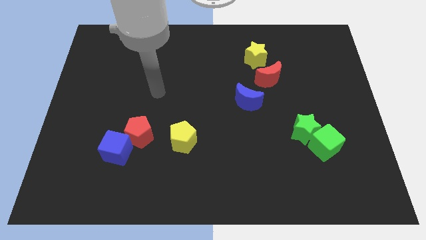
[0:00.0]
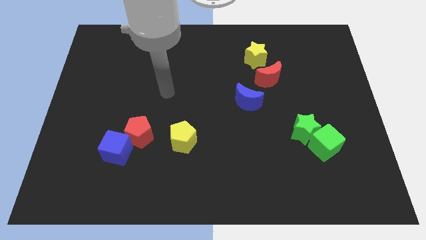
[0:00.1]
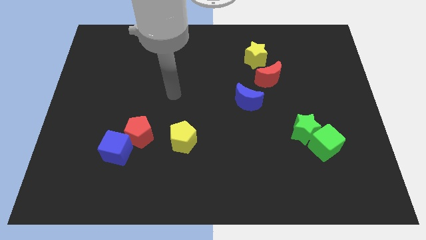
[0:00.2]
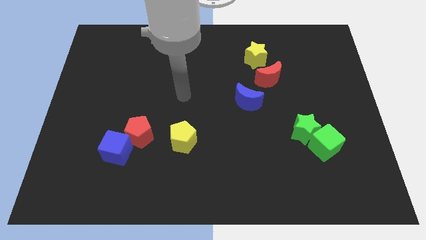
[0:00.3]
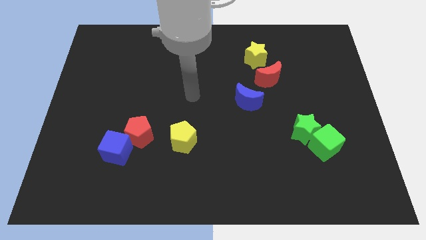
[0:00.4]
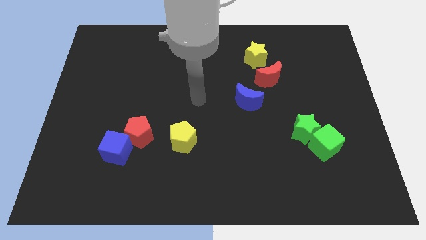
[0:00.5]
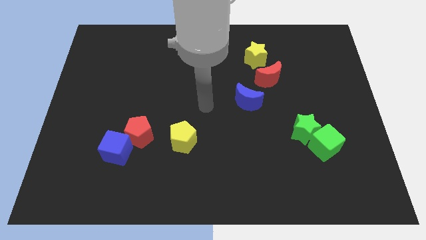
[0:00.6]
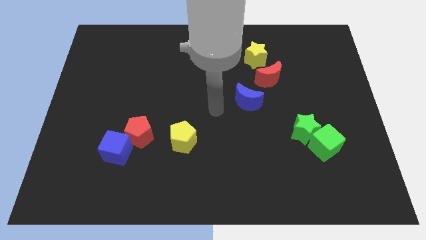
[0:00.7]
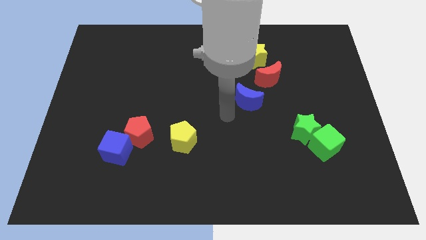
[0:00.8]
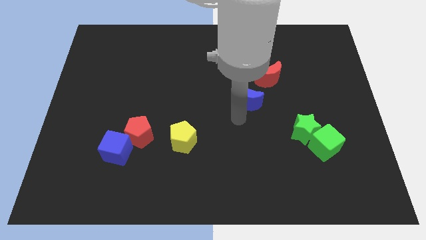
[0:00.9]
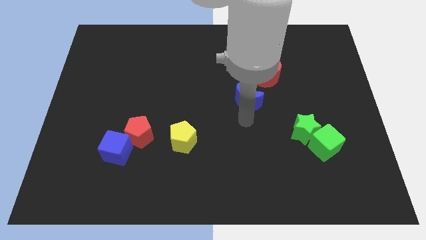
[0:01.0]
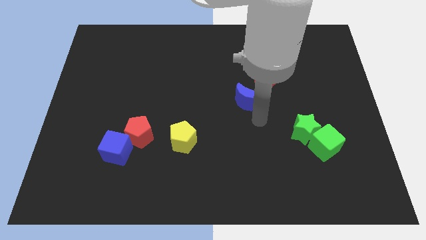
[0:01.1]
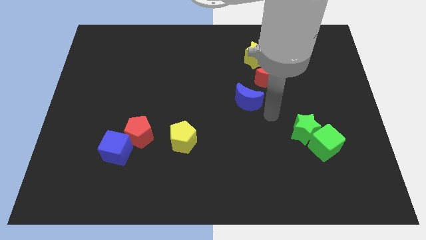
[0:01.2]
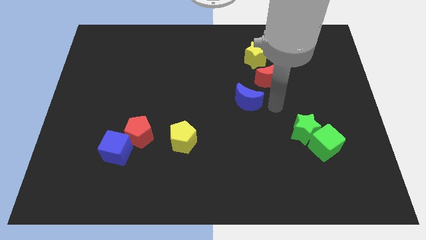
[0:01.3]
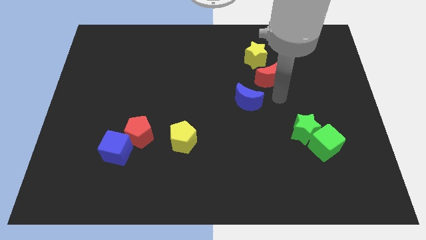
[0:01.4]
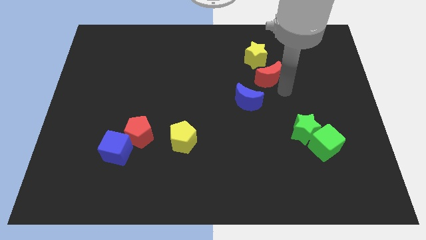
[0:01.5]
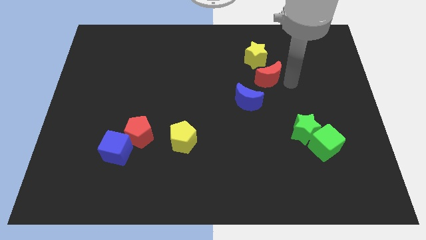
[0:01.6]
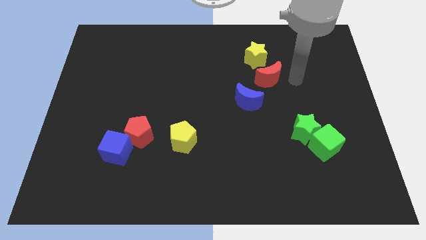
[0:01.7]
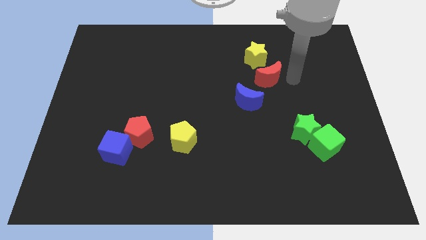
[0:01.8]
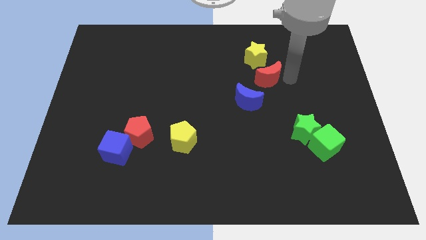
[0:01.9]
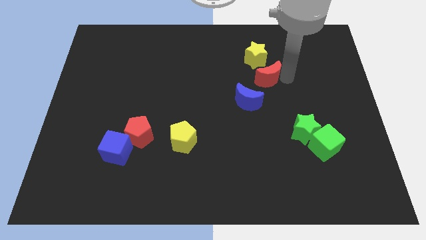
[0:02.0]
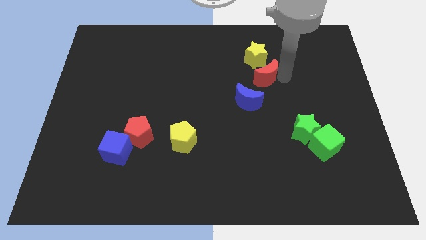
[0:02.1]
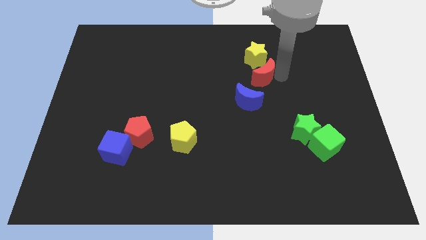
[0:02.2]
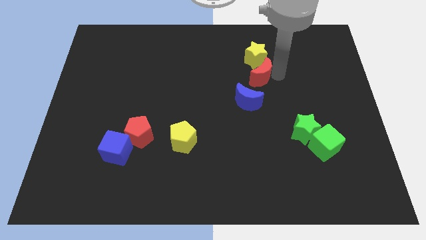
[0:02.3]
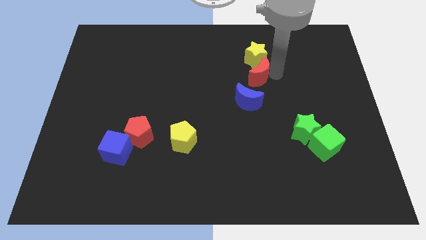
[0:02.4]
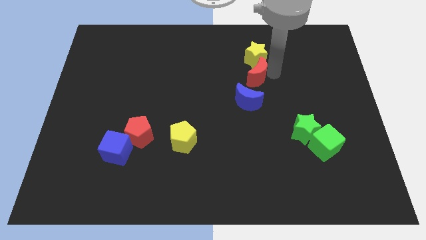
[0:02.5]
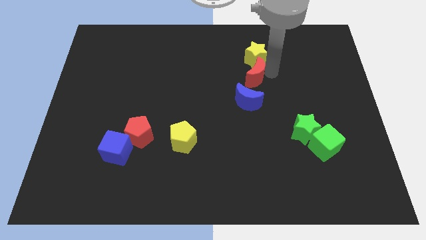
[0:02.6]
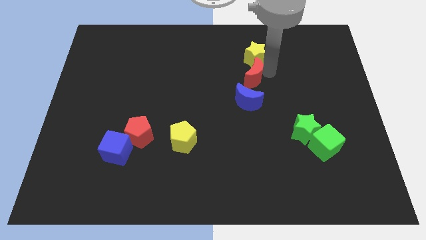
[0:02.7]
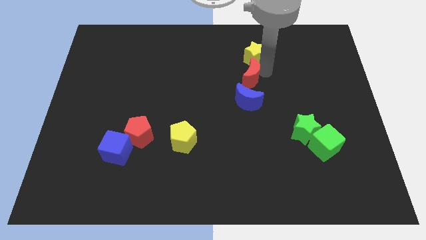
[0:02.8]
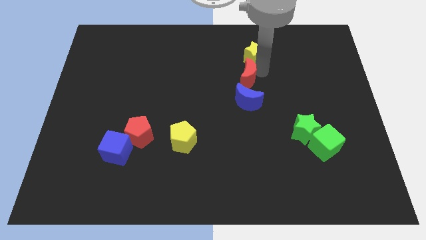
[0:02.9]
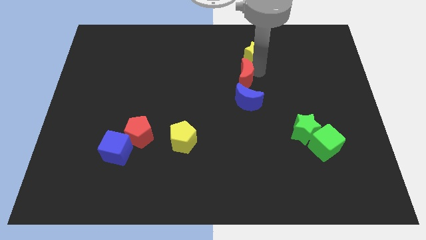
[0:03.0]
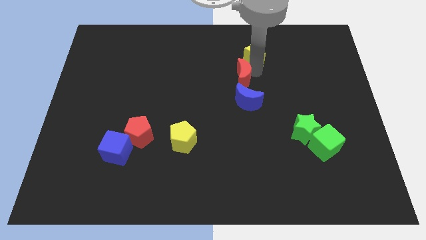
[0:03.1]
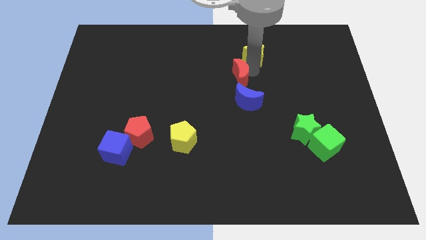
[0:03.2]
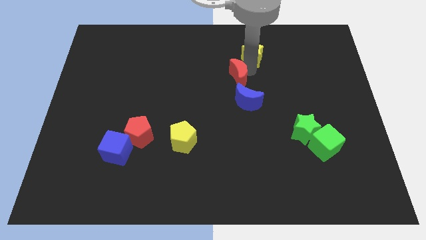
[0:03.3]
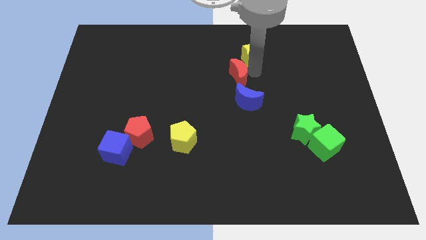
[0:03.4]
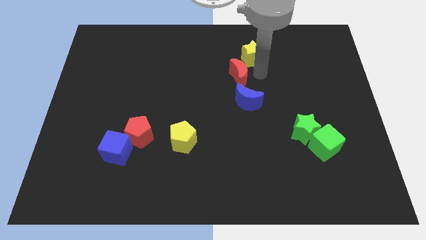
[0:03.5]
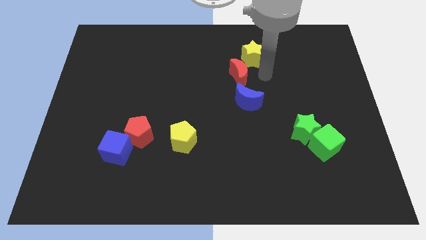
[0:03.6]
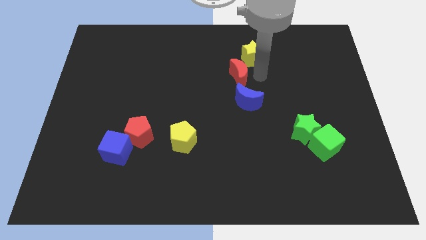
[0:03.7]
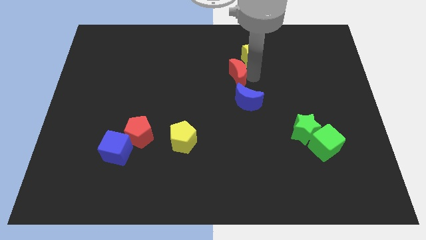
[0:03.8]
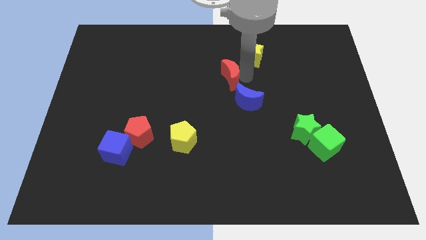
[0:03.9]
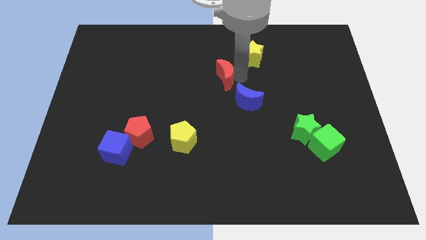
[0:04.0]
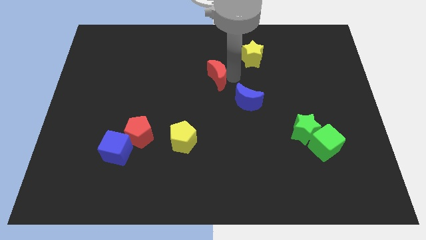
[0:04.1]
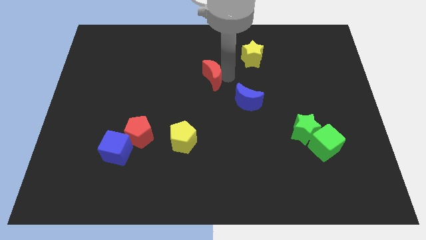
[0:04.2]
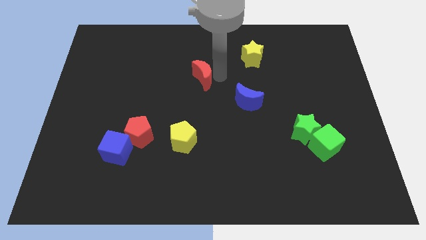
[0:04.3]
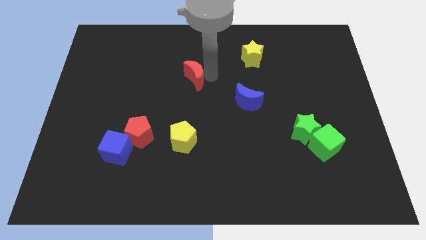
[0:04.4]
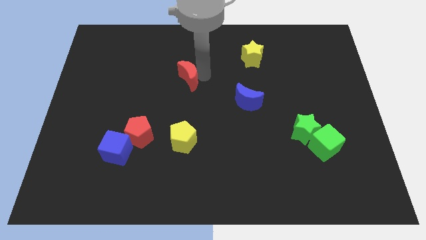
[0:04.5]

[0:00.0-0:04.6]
push the red moon left

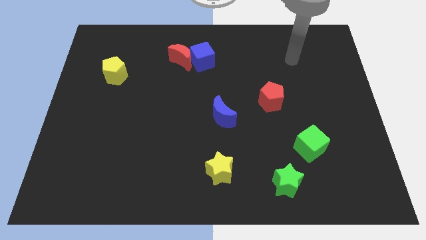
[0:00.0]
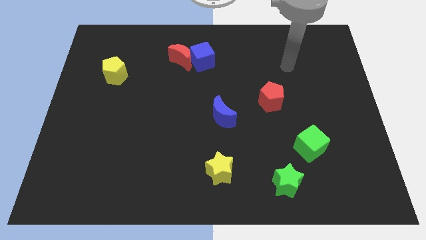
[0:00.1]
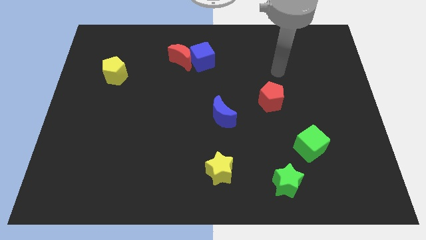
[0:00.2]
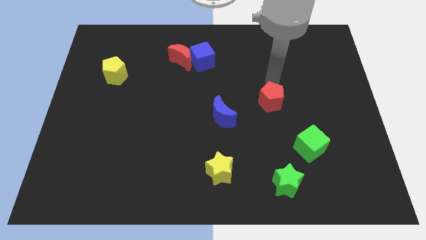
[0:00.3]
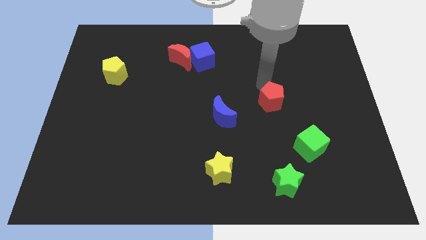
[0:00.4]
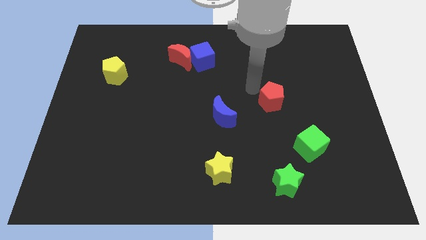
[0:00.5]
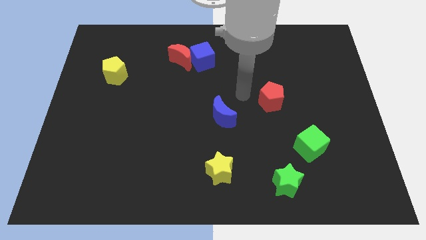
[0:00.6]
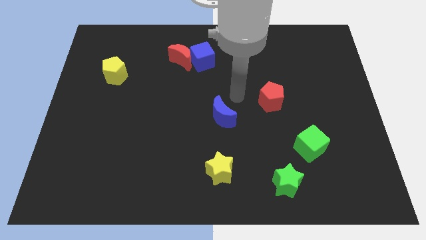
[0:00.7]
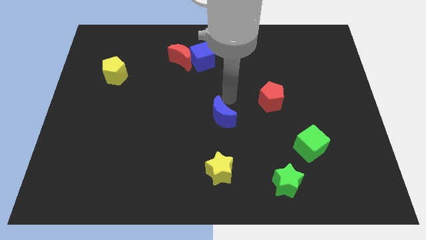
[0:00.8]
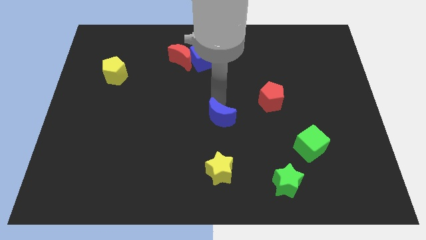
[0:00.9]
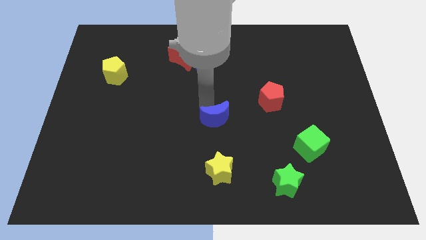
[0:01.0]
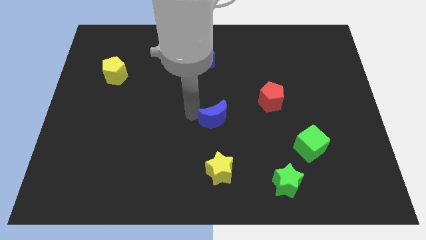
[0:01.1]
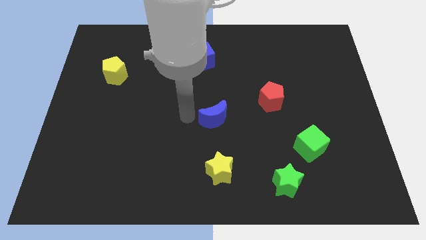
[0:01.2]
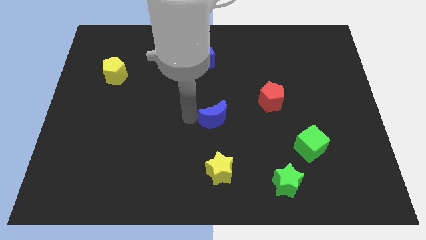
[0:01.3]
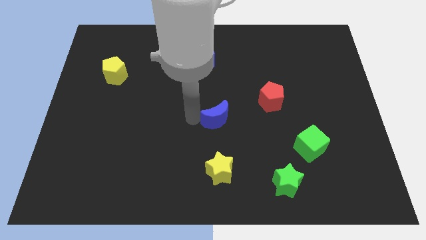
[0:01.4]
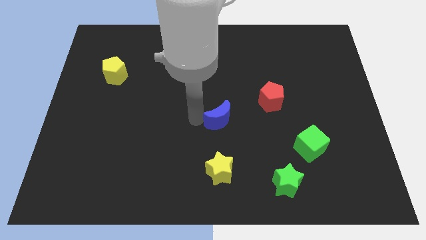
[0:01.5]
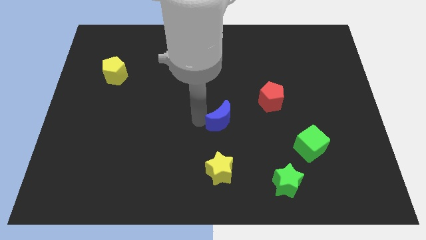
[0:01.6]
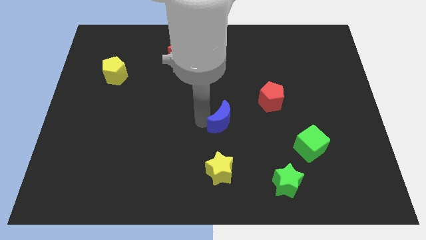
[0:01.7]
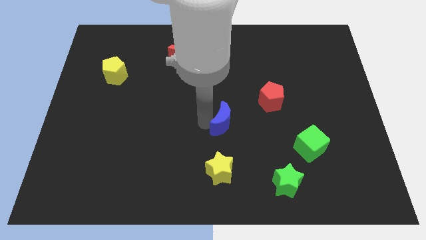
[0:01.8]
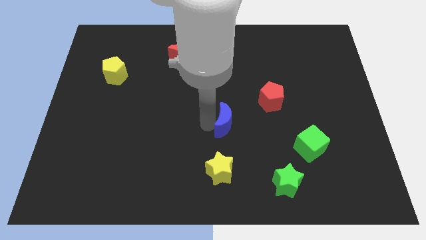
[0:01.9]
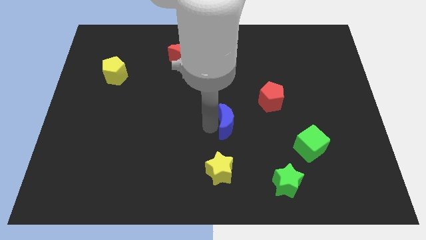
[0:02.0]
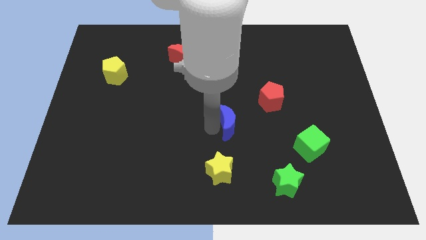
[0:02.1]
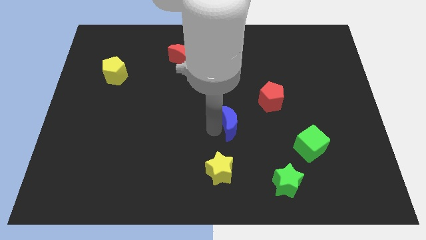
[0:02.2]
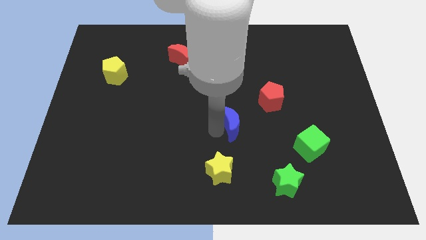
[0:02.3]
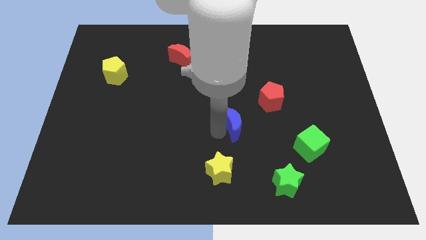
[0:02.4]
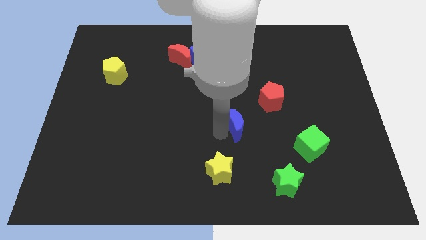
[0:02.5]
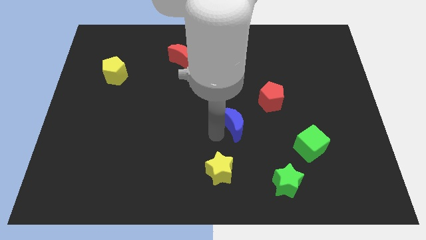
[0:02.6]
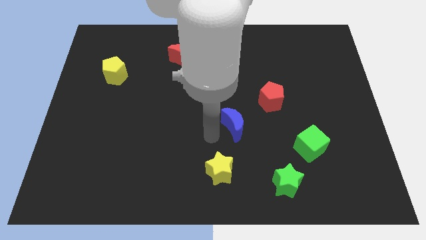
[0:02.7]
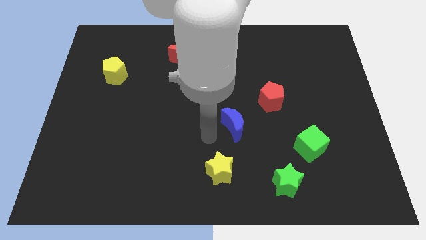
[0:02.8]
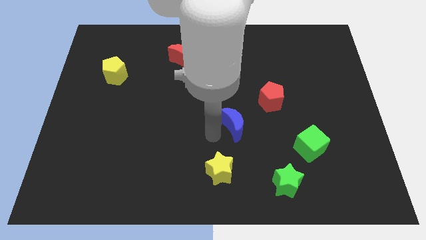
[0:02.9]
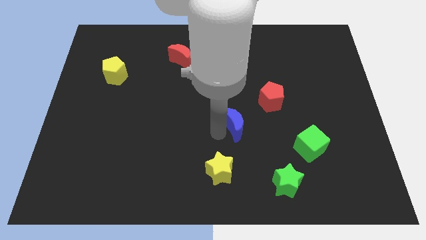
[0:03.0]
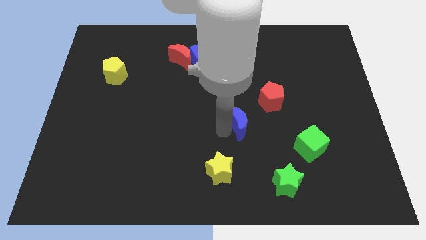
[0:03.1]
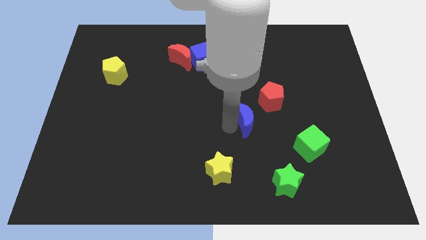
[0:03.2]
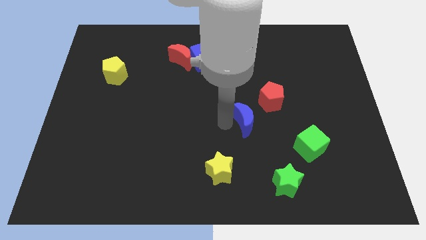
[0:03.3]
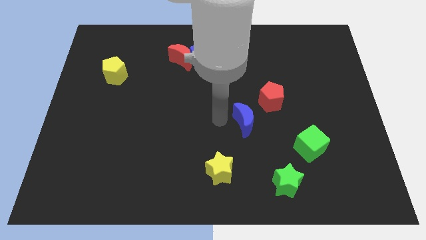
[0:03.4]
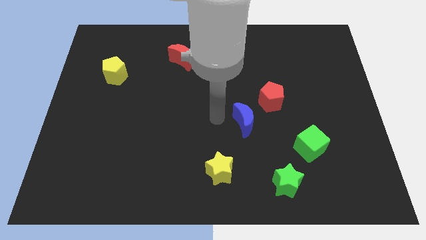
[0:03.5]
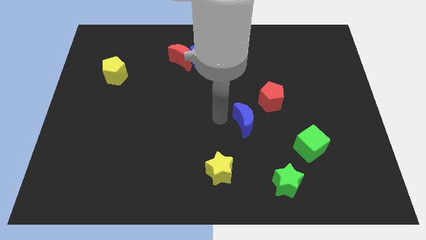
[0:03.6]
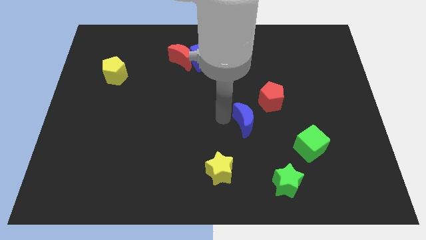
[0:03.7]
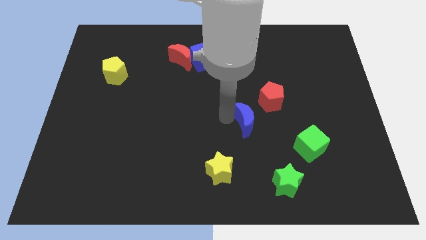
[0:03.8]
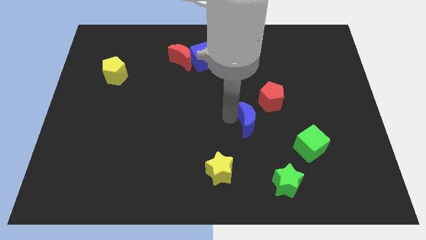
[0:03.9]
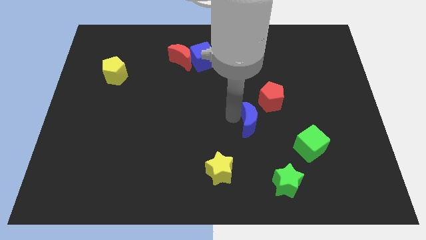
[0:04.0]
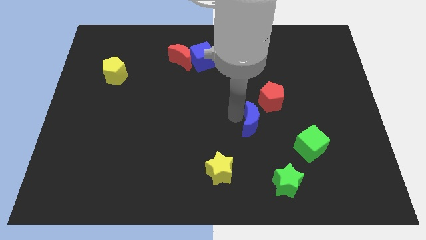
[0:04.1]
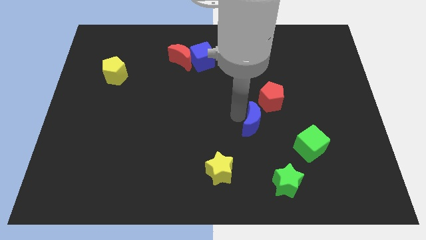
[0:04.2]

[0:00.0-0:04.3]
slightly push the blue moon to the right

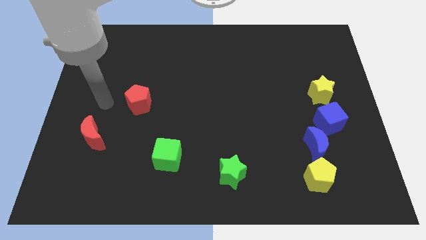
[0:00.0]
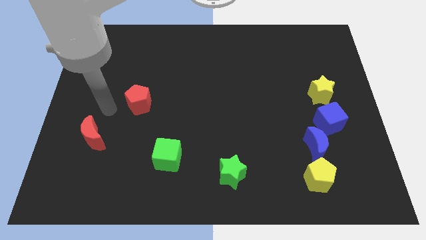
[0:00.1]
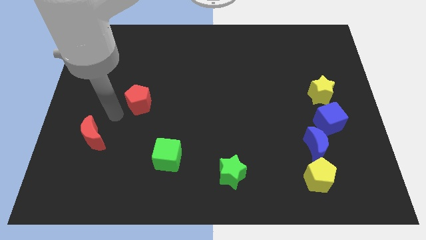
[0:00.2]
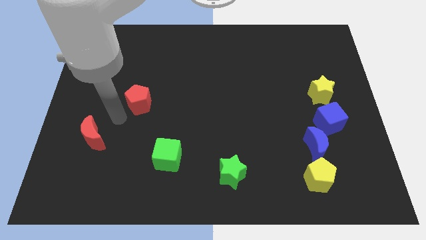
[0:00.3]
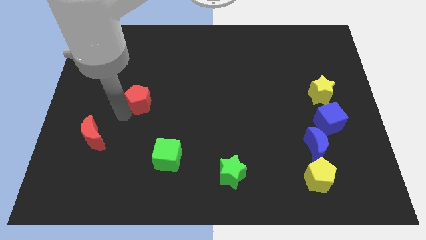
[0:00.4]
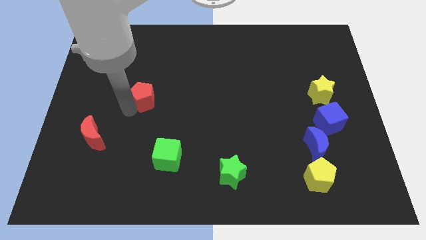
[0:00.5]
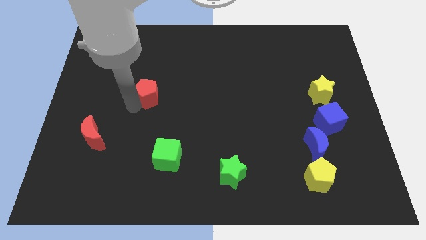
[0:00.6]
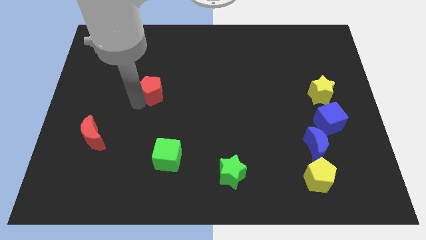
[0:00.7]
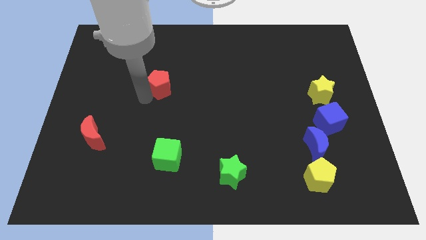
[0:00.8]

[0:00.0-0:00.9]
push the red pentagon upwards and to the right diagonally a little
